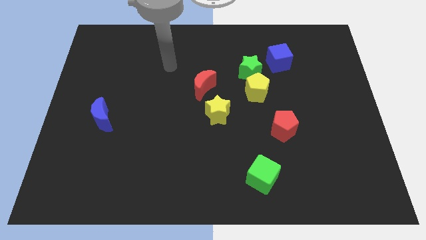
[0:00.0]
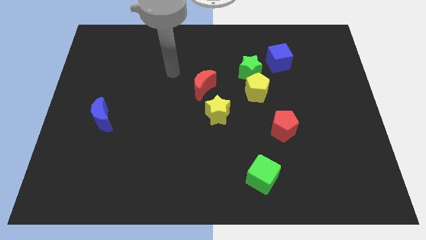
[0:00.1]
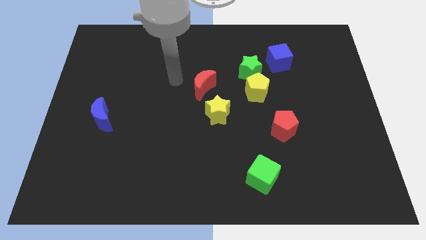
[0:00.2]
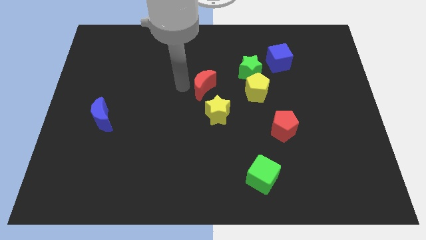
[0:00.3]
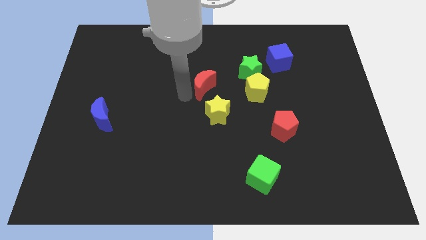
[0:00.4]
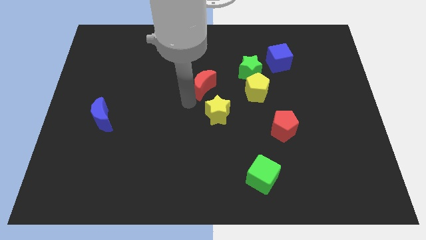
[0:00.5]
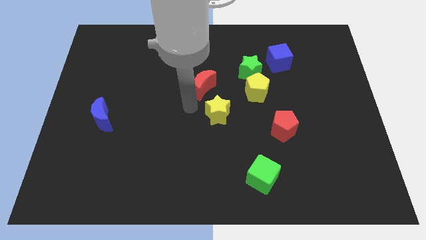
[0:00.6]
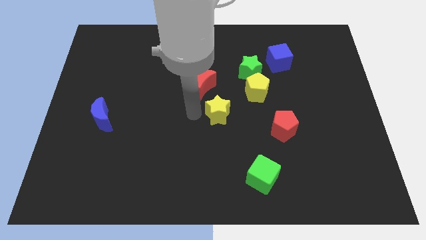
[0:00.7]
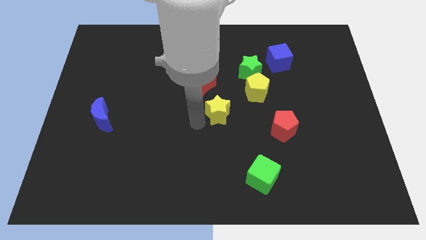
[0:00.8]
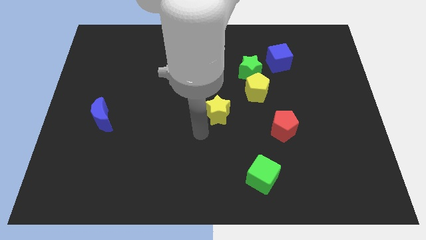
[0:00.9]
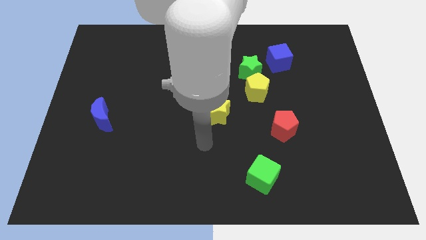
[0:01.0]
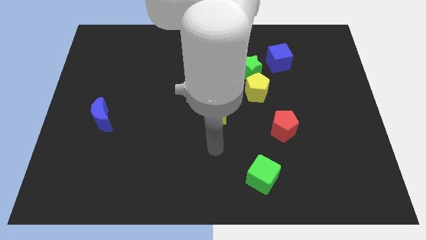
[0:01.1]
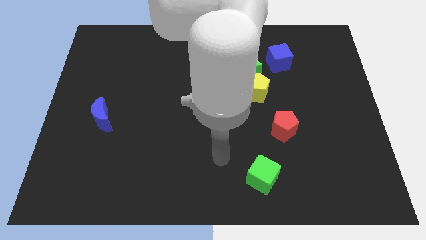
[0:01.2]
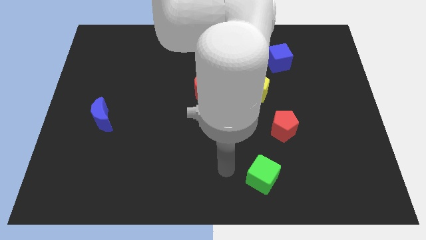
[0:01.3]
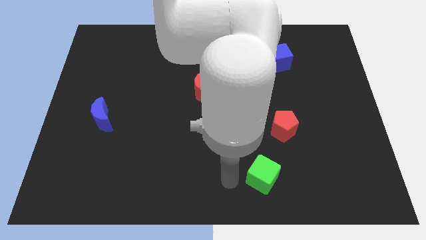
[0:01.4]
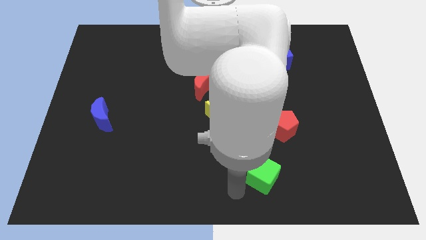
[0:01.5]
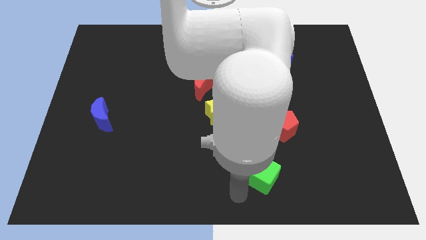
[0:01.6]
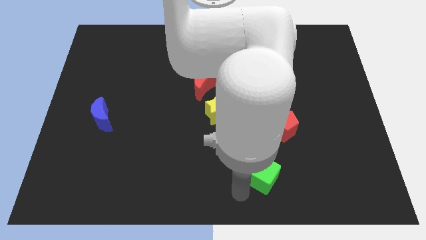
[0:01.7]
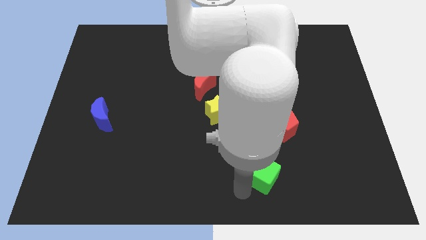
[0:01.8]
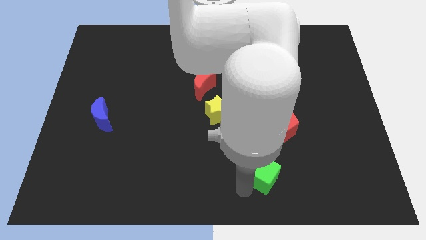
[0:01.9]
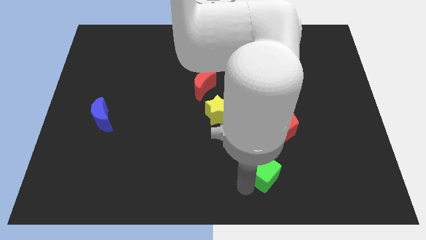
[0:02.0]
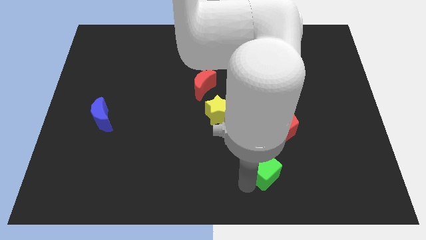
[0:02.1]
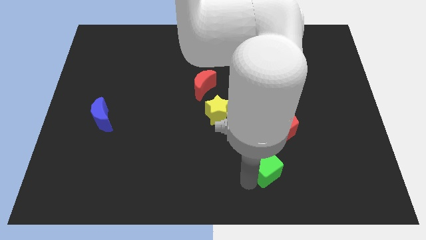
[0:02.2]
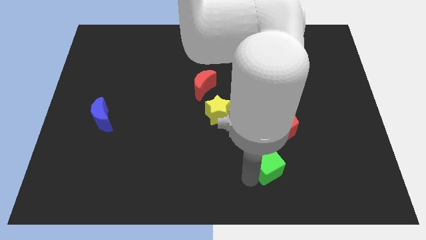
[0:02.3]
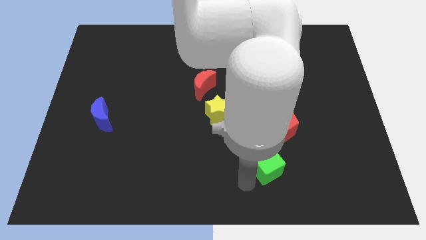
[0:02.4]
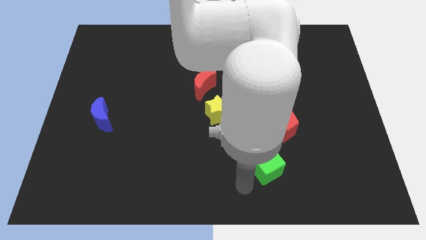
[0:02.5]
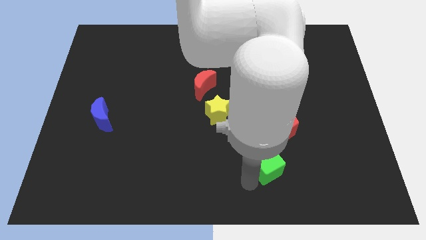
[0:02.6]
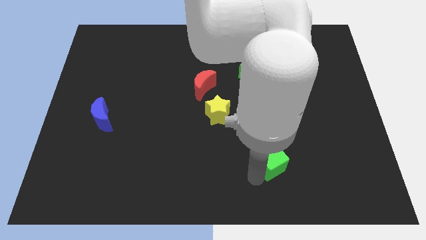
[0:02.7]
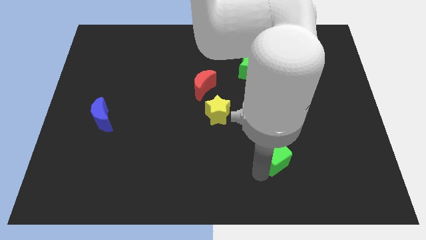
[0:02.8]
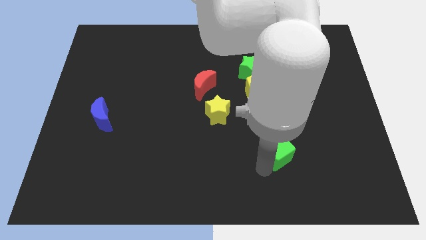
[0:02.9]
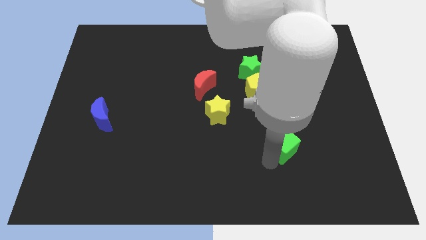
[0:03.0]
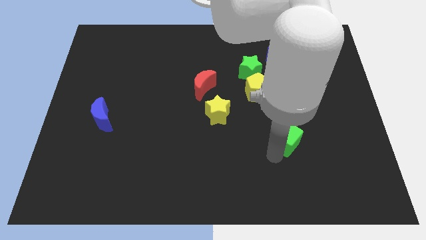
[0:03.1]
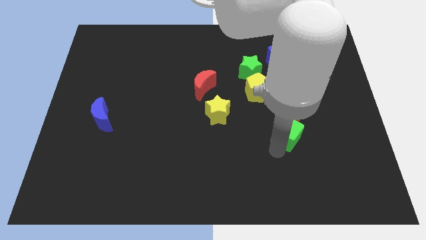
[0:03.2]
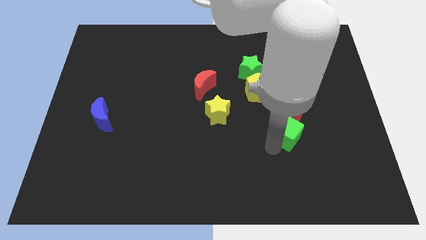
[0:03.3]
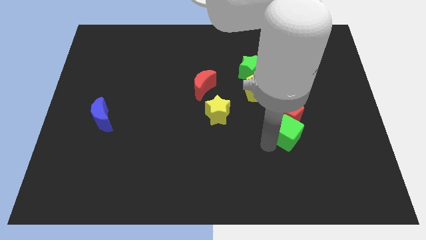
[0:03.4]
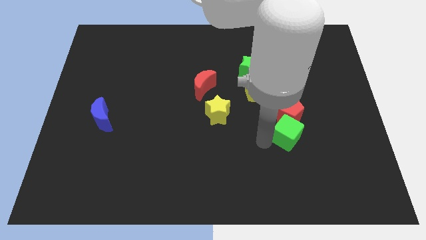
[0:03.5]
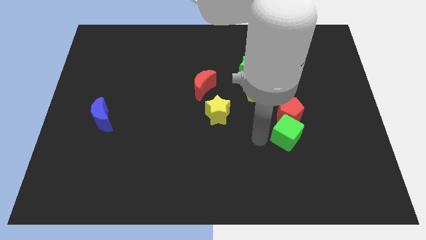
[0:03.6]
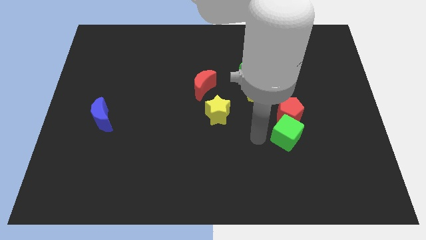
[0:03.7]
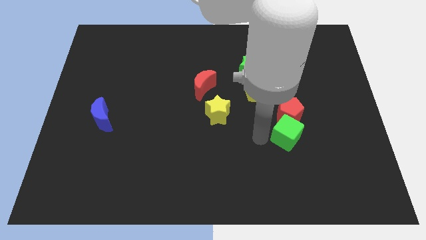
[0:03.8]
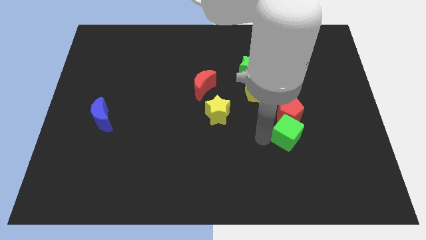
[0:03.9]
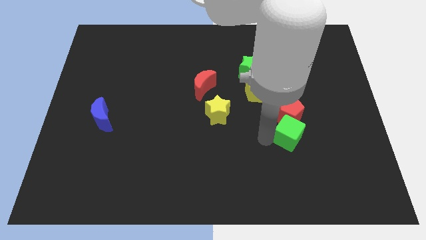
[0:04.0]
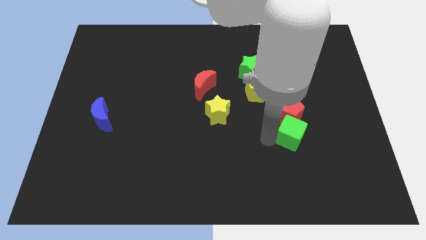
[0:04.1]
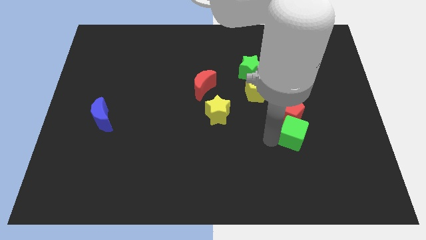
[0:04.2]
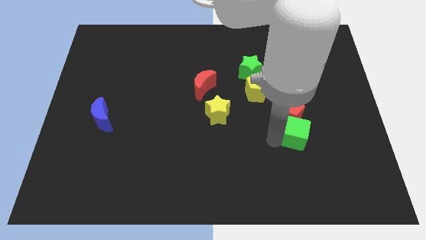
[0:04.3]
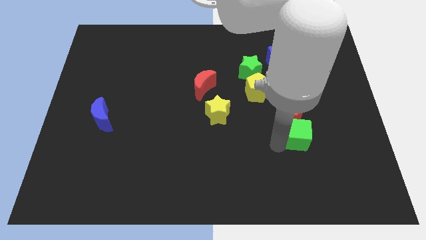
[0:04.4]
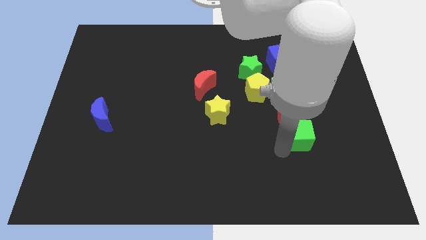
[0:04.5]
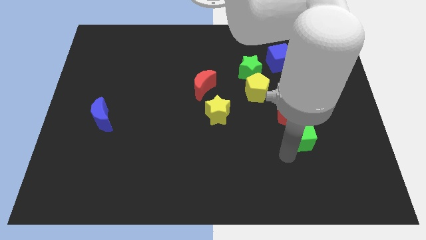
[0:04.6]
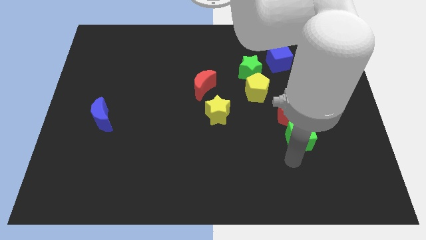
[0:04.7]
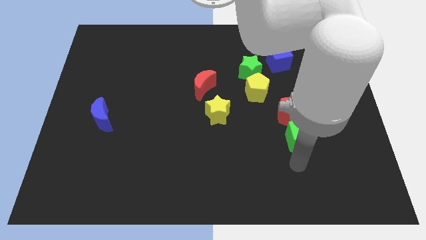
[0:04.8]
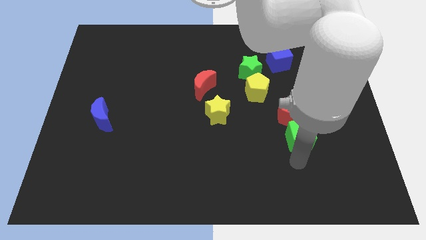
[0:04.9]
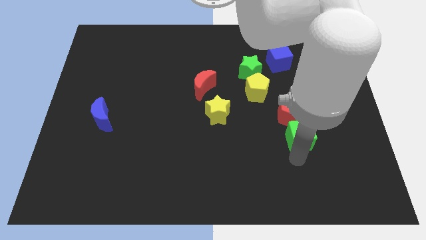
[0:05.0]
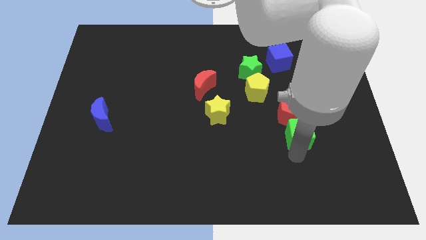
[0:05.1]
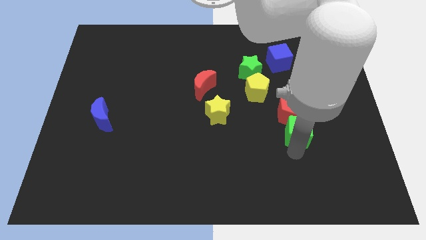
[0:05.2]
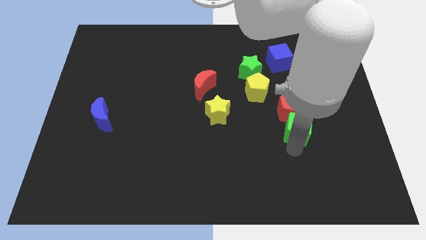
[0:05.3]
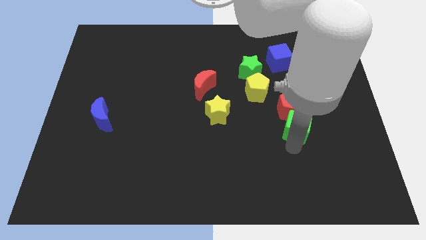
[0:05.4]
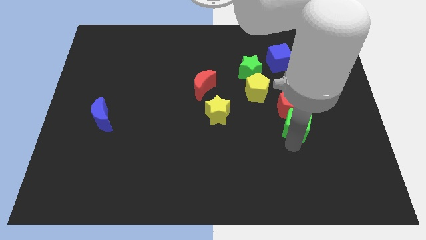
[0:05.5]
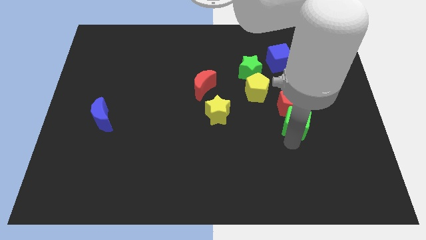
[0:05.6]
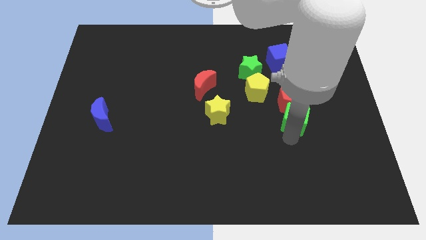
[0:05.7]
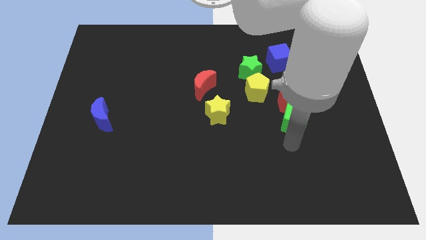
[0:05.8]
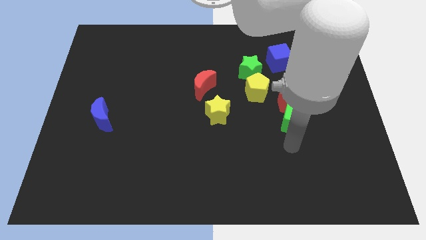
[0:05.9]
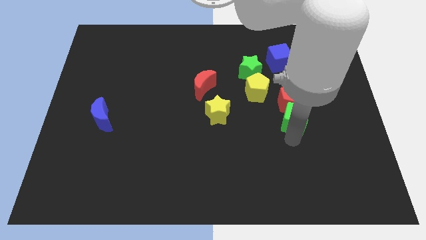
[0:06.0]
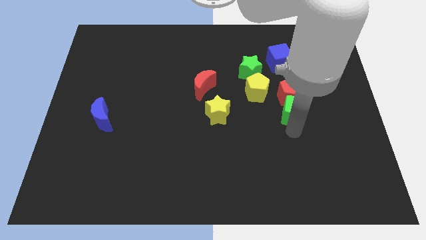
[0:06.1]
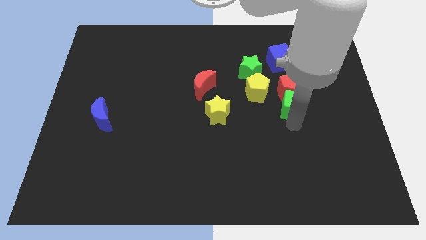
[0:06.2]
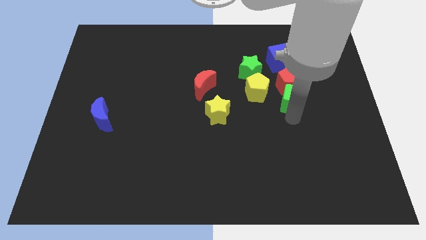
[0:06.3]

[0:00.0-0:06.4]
move the green cube just right of the yellow pentagon
